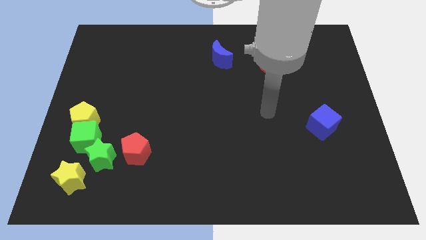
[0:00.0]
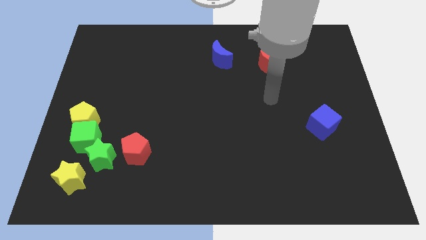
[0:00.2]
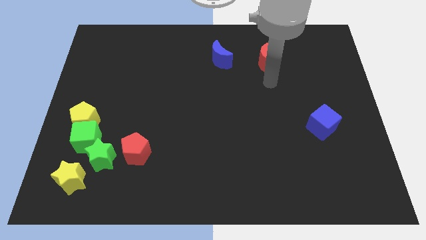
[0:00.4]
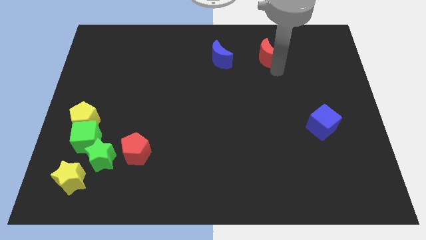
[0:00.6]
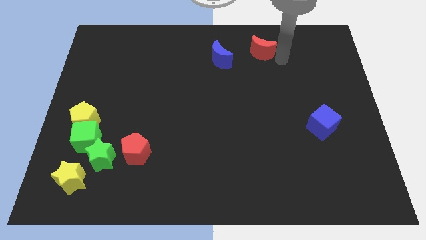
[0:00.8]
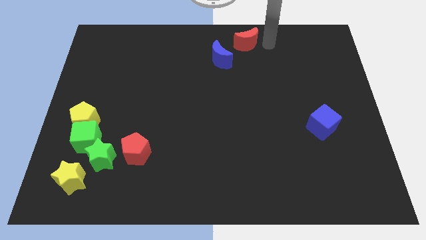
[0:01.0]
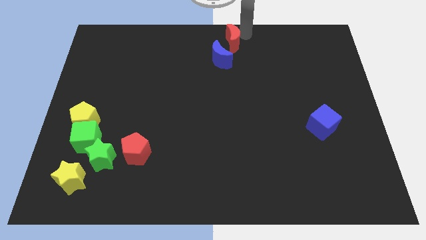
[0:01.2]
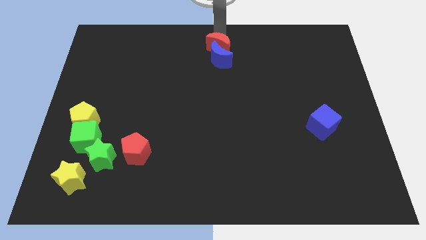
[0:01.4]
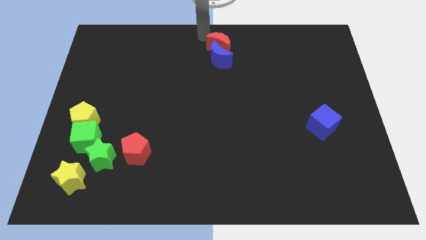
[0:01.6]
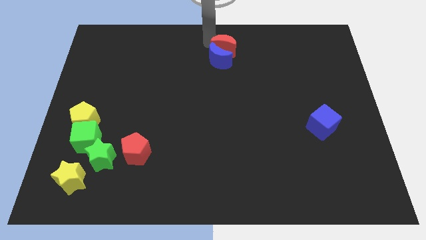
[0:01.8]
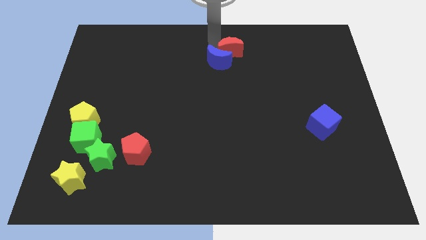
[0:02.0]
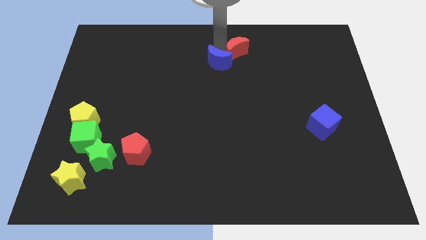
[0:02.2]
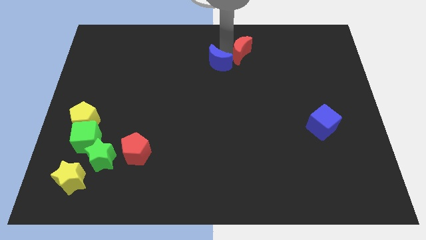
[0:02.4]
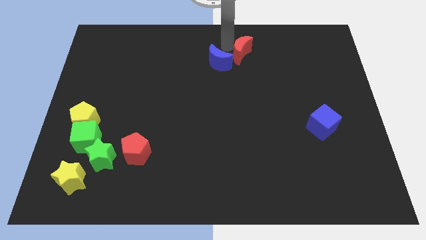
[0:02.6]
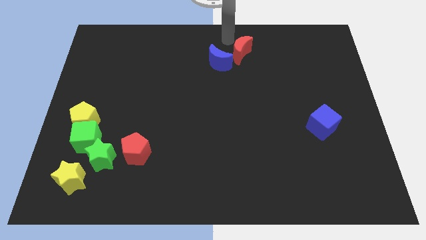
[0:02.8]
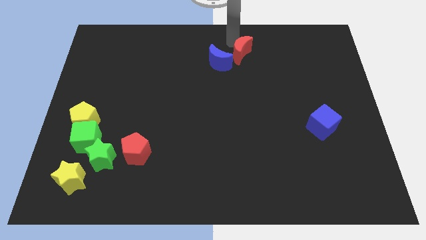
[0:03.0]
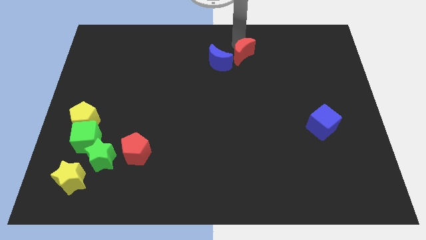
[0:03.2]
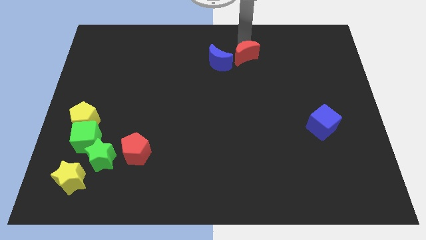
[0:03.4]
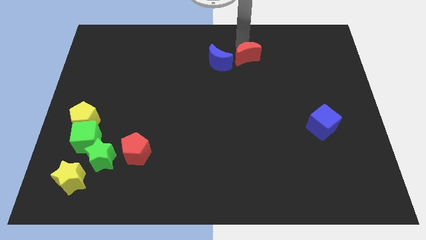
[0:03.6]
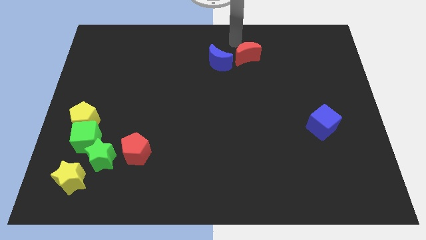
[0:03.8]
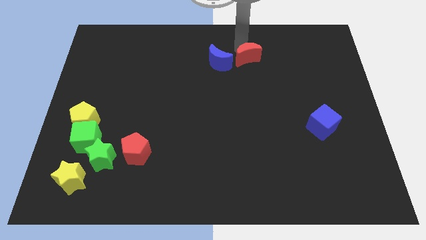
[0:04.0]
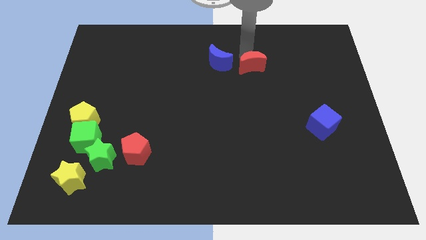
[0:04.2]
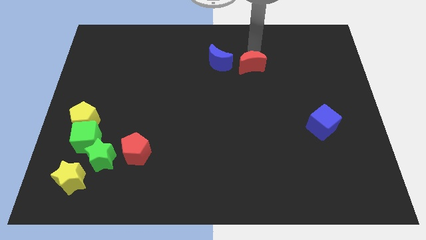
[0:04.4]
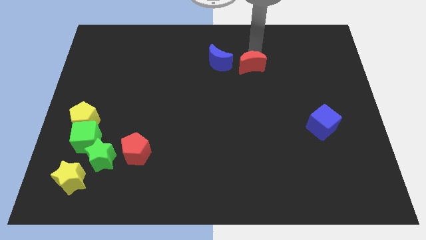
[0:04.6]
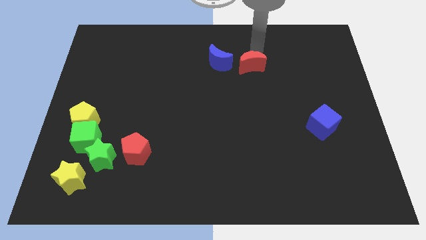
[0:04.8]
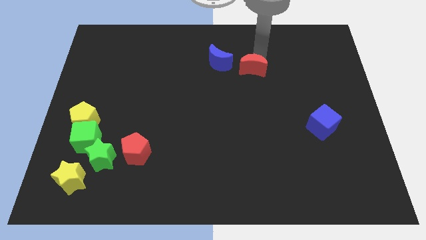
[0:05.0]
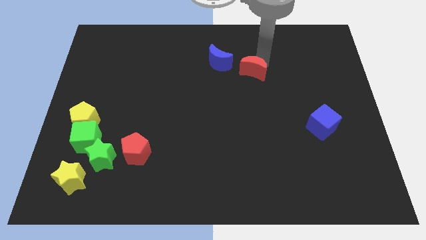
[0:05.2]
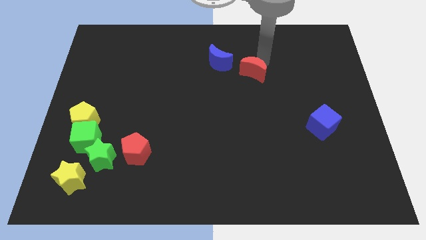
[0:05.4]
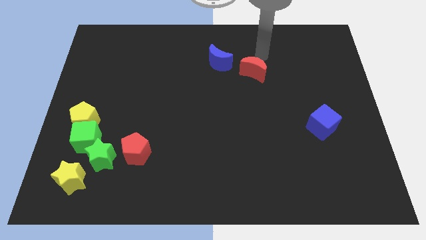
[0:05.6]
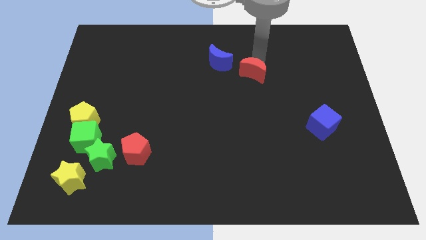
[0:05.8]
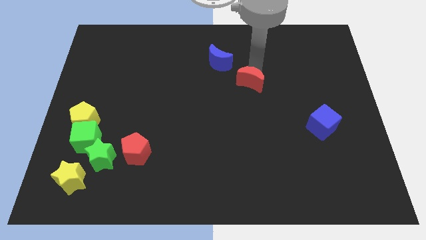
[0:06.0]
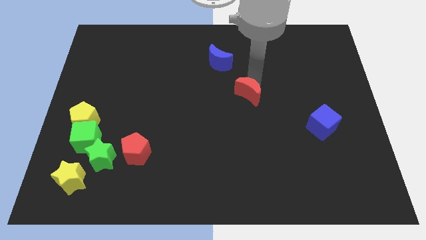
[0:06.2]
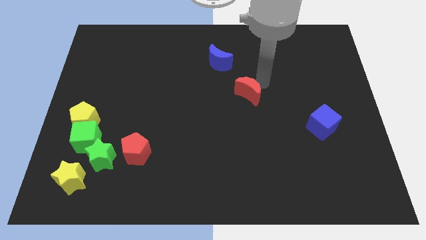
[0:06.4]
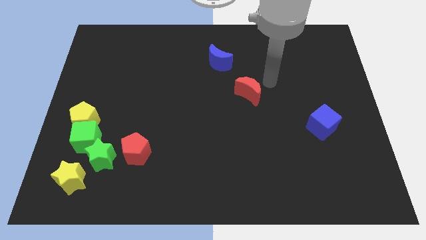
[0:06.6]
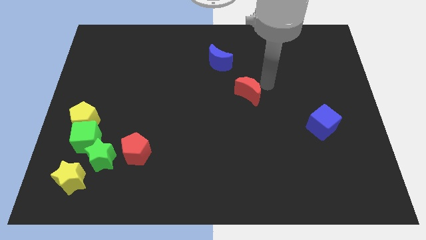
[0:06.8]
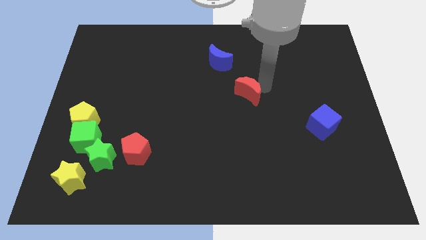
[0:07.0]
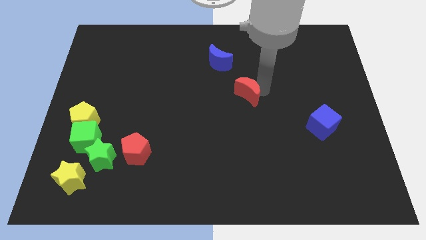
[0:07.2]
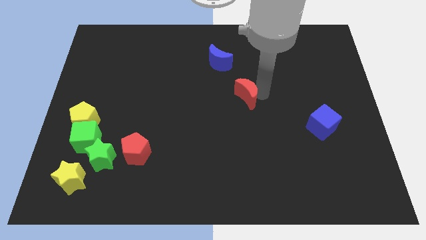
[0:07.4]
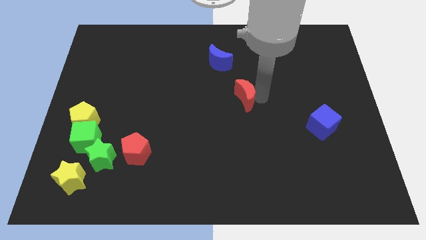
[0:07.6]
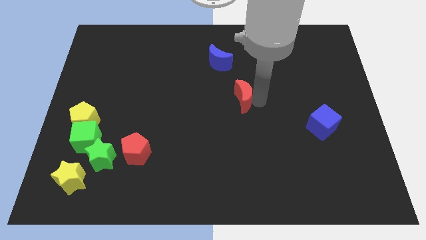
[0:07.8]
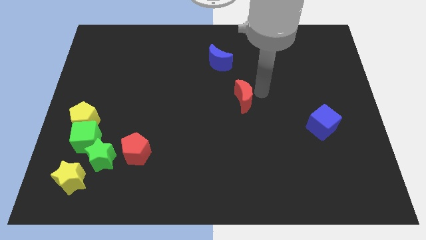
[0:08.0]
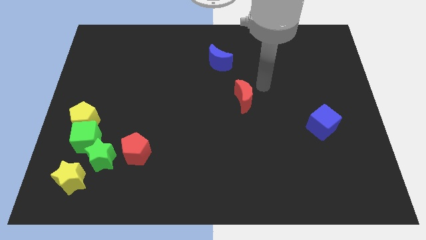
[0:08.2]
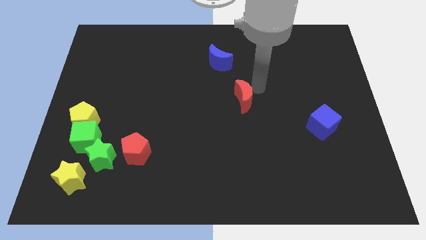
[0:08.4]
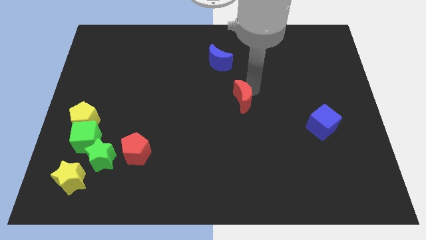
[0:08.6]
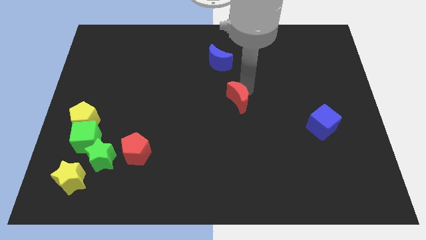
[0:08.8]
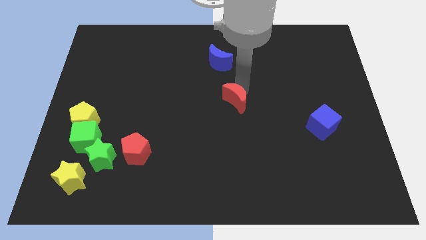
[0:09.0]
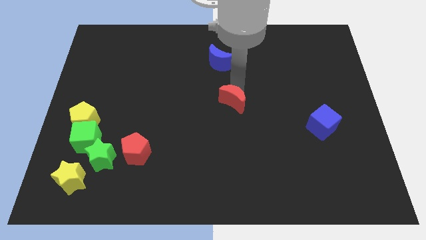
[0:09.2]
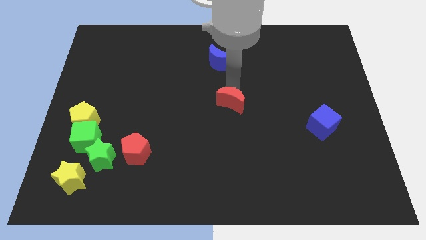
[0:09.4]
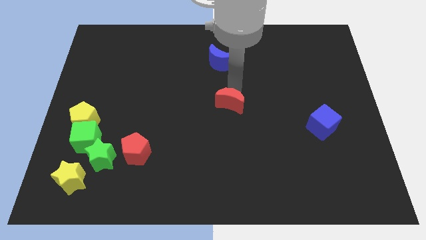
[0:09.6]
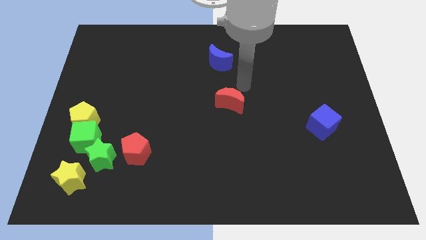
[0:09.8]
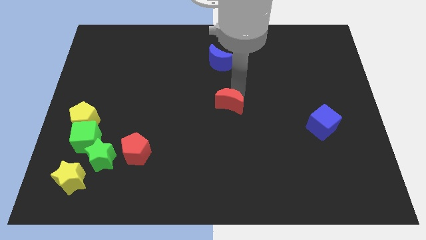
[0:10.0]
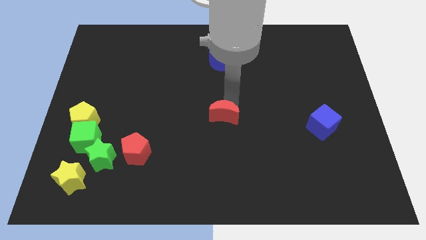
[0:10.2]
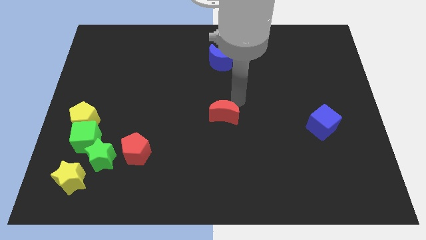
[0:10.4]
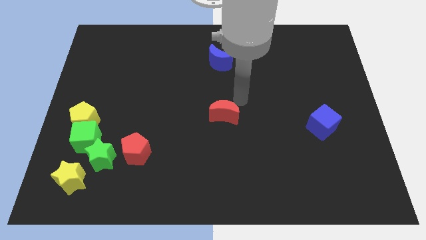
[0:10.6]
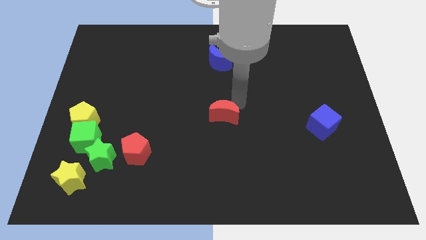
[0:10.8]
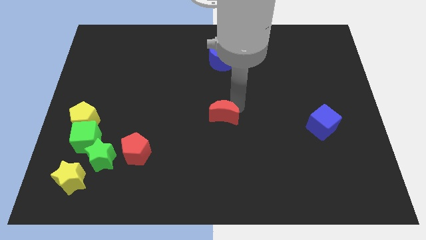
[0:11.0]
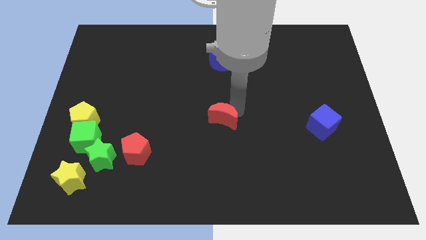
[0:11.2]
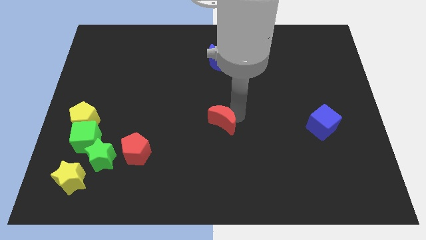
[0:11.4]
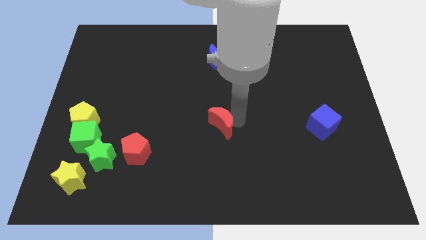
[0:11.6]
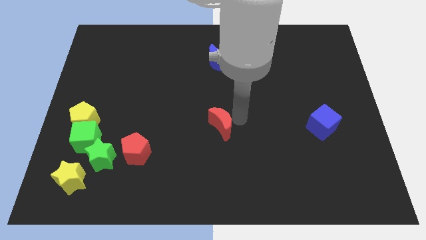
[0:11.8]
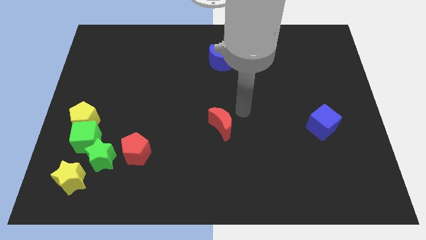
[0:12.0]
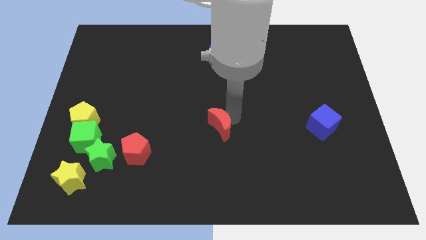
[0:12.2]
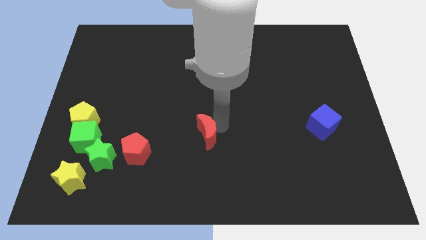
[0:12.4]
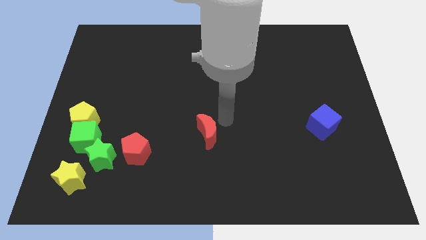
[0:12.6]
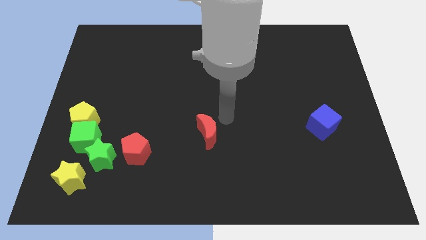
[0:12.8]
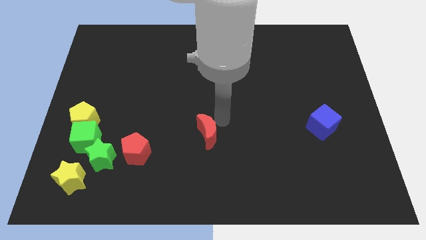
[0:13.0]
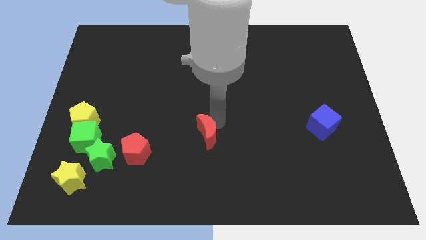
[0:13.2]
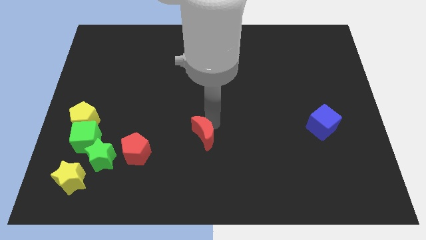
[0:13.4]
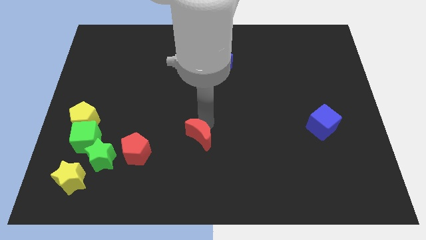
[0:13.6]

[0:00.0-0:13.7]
put the red moon just right of the red pentagon

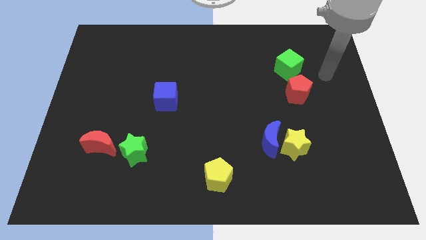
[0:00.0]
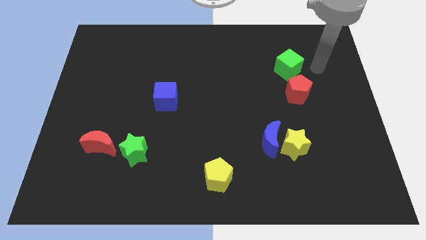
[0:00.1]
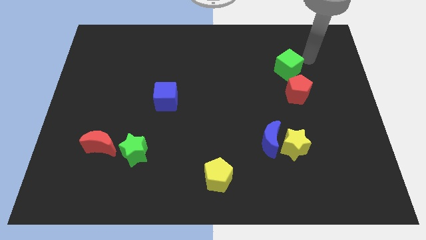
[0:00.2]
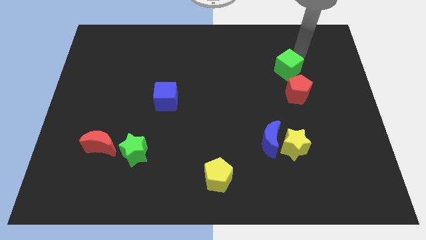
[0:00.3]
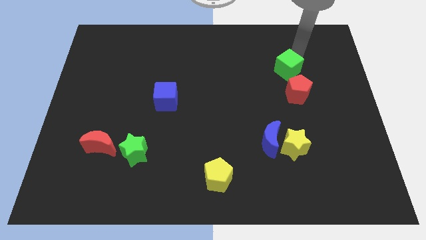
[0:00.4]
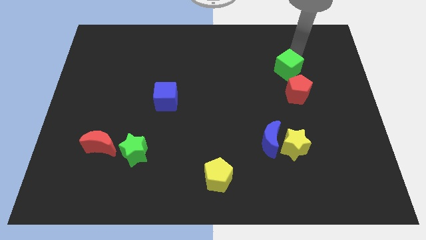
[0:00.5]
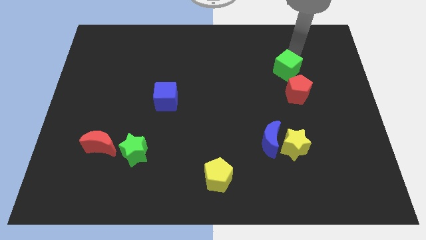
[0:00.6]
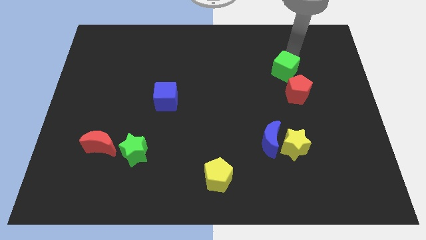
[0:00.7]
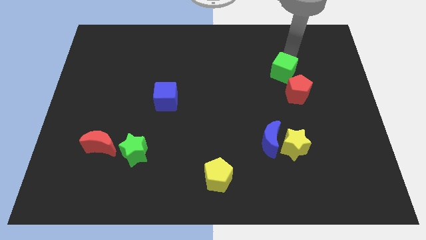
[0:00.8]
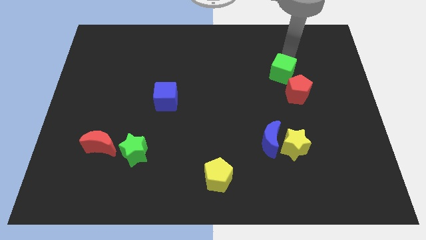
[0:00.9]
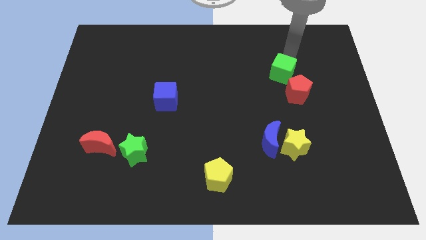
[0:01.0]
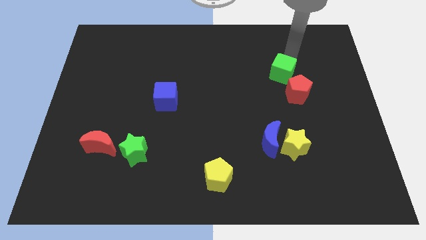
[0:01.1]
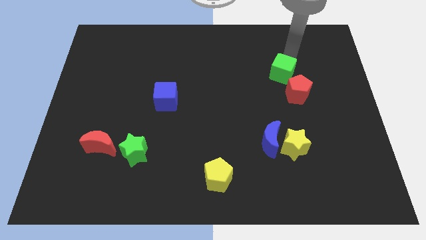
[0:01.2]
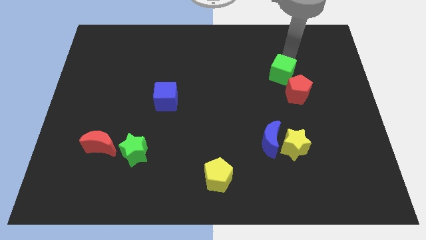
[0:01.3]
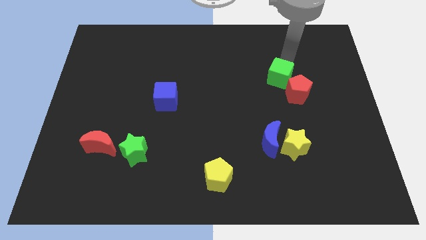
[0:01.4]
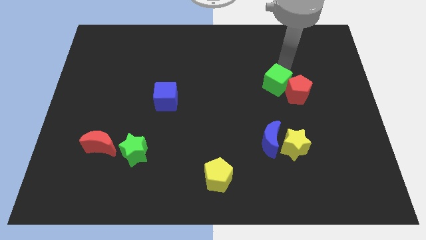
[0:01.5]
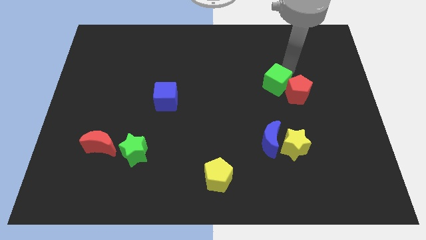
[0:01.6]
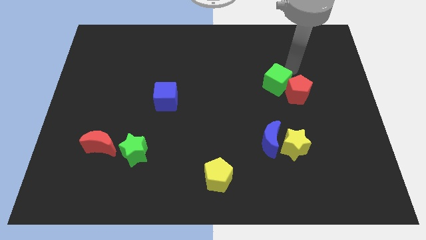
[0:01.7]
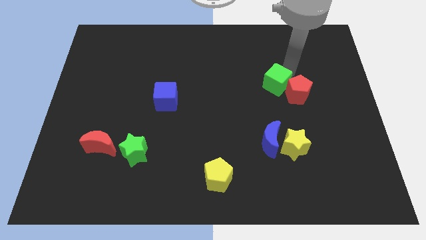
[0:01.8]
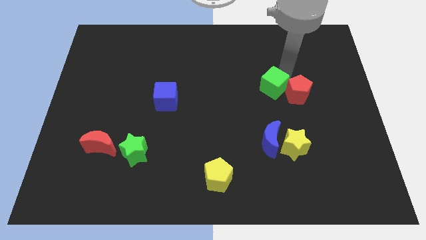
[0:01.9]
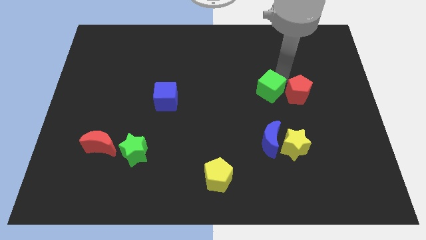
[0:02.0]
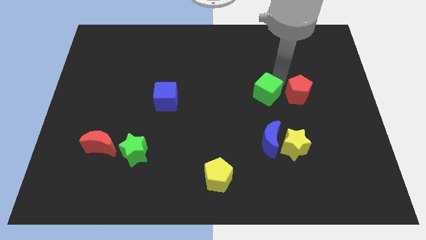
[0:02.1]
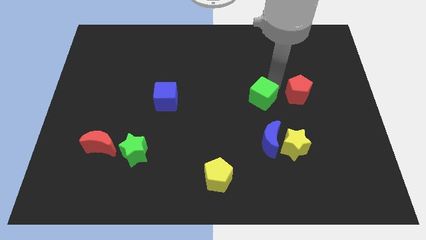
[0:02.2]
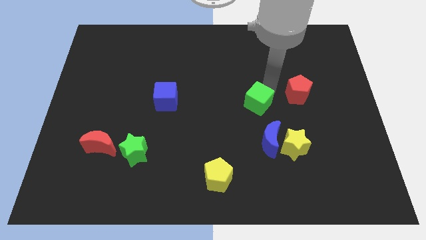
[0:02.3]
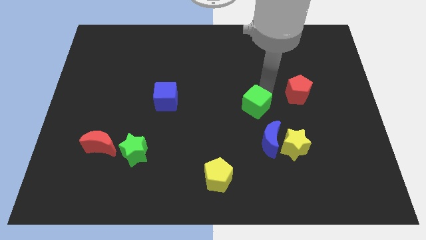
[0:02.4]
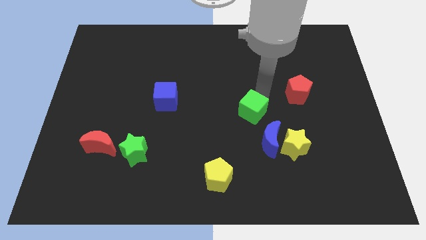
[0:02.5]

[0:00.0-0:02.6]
move the green cube to the top left of the blue moon
